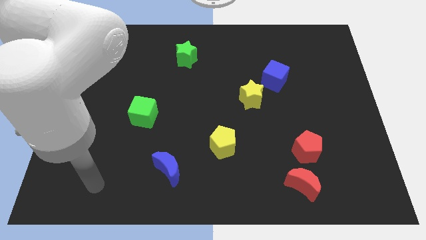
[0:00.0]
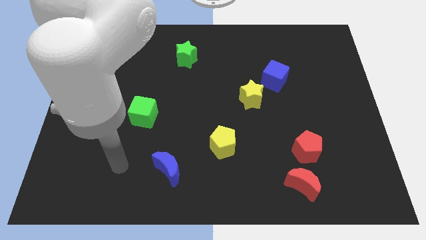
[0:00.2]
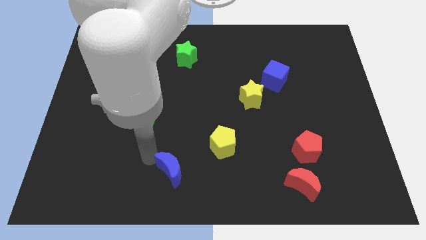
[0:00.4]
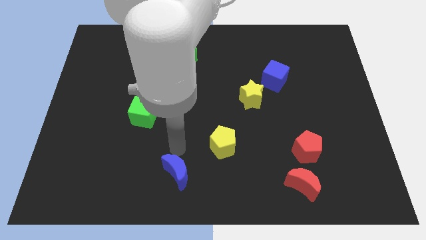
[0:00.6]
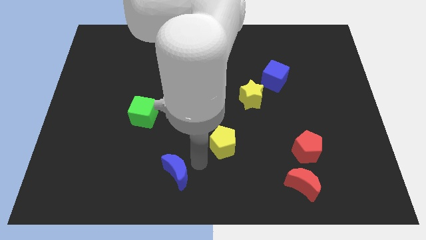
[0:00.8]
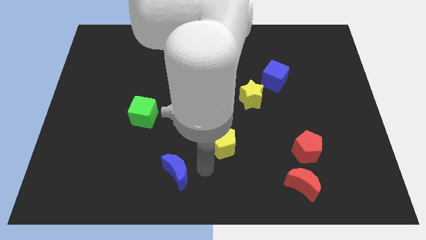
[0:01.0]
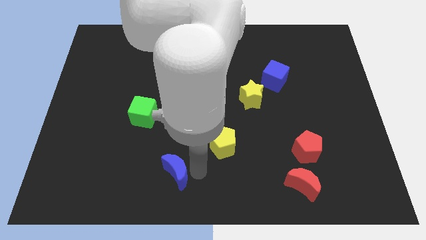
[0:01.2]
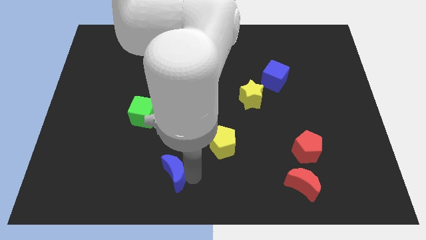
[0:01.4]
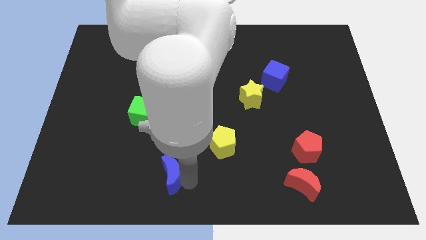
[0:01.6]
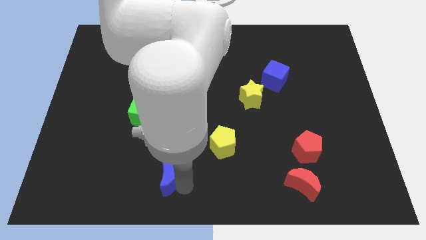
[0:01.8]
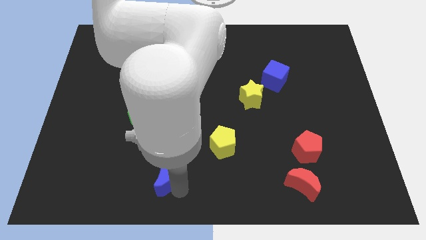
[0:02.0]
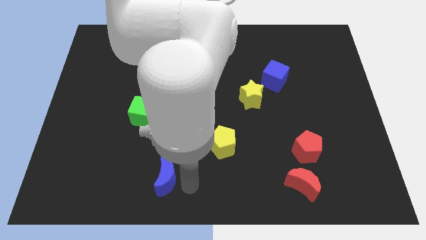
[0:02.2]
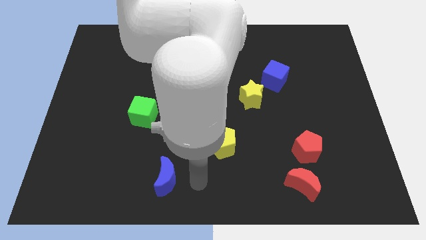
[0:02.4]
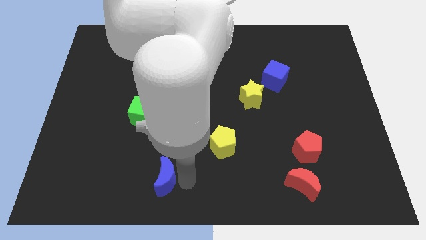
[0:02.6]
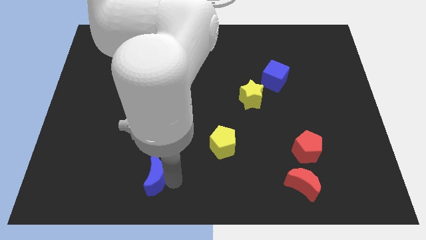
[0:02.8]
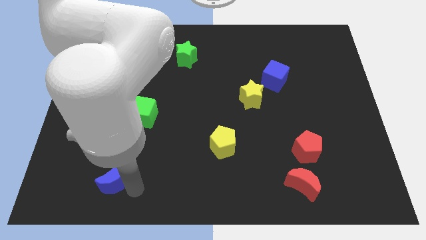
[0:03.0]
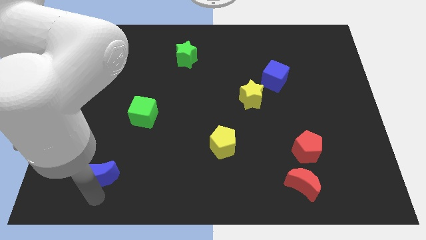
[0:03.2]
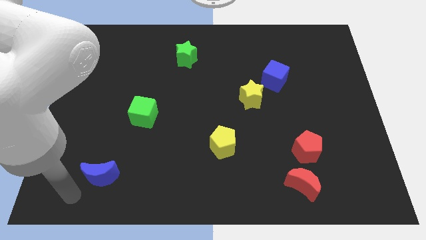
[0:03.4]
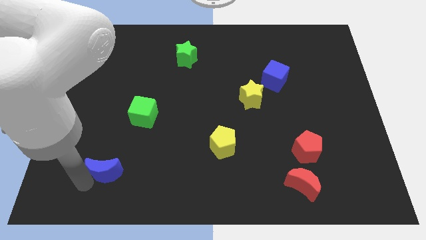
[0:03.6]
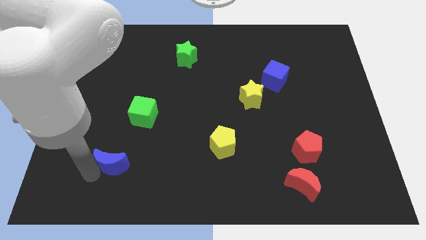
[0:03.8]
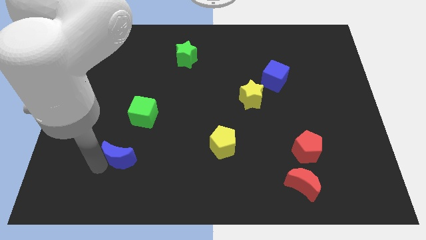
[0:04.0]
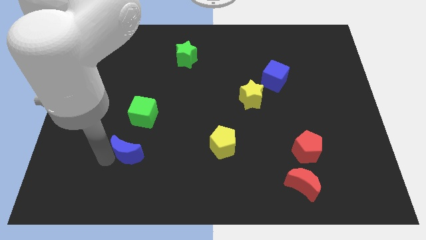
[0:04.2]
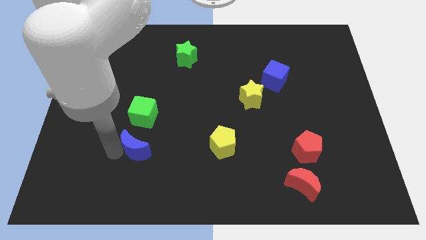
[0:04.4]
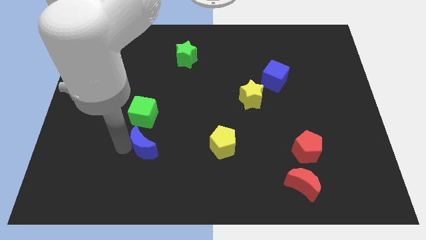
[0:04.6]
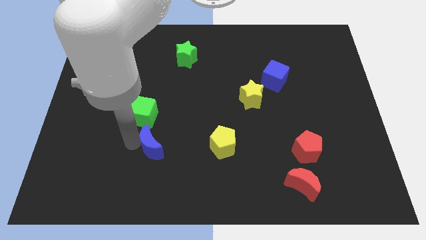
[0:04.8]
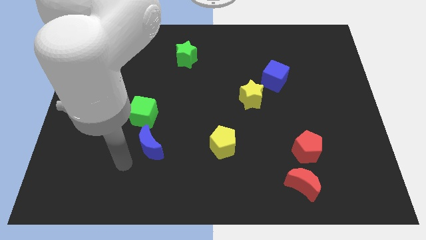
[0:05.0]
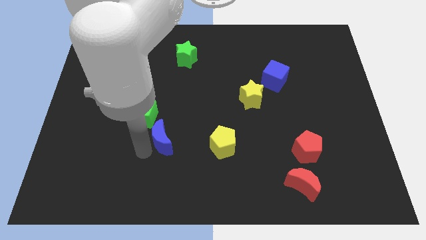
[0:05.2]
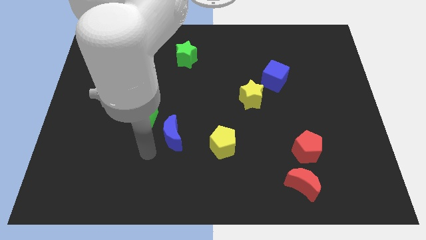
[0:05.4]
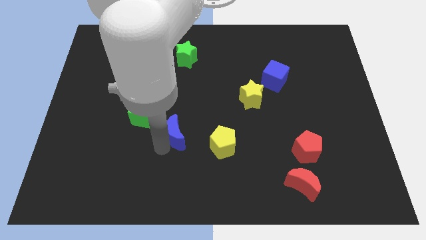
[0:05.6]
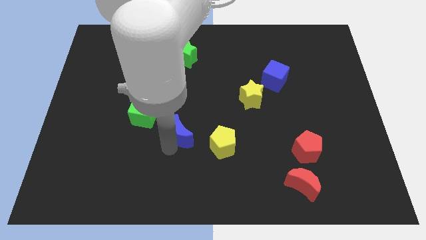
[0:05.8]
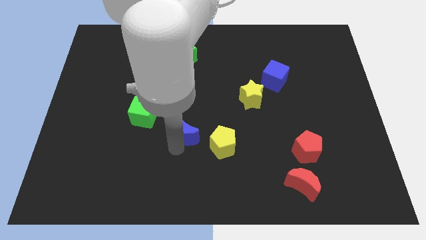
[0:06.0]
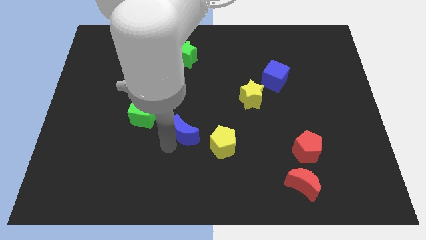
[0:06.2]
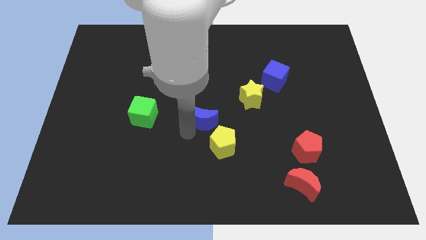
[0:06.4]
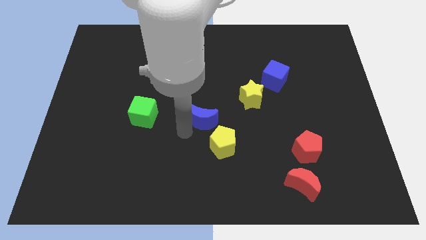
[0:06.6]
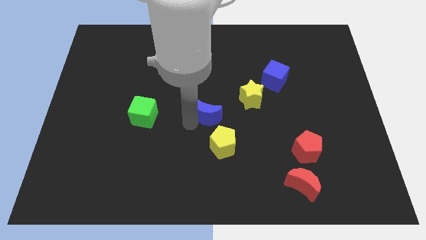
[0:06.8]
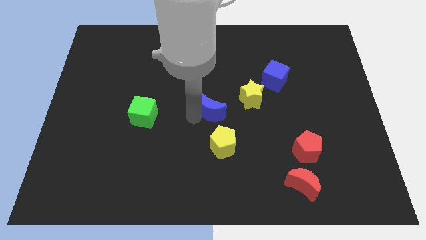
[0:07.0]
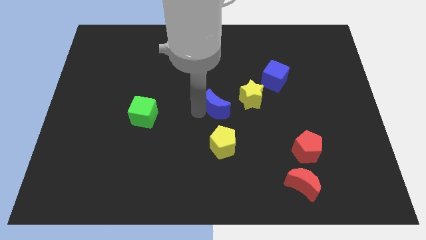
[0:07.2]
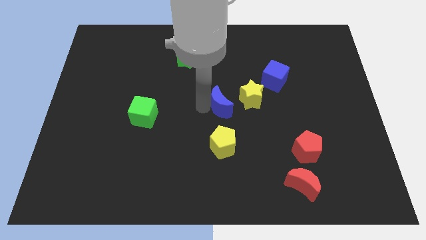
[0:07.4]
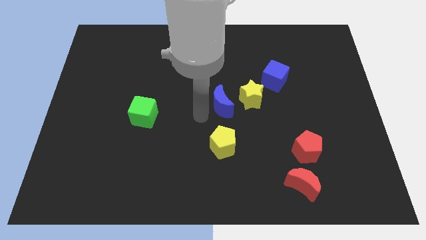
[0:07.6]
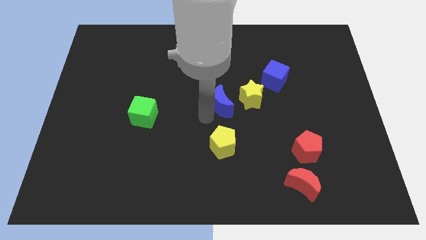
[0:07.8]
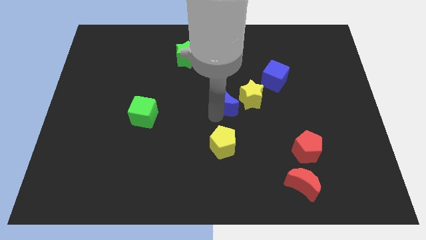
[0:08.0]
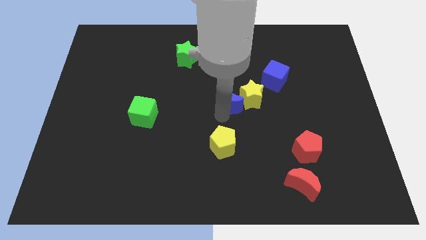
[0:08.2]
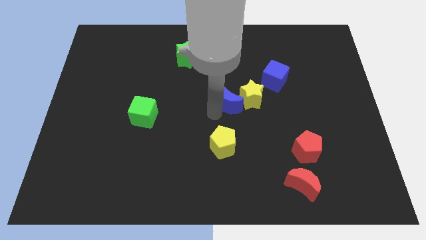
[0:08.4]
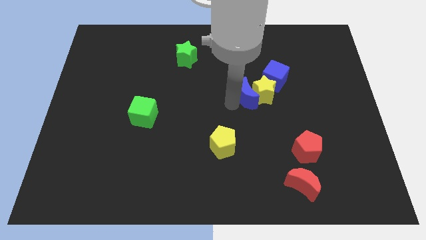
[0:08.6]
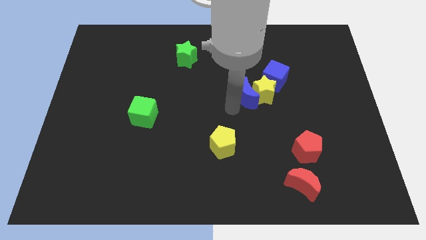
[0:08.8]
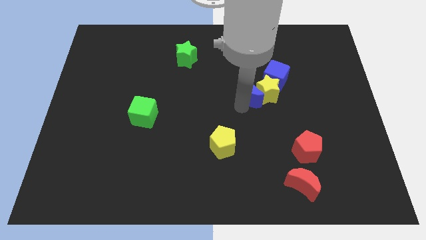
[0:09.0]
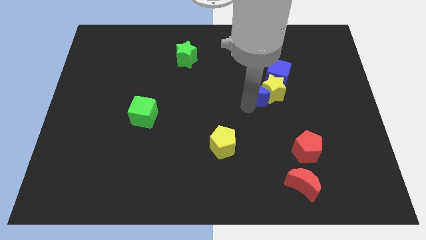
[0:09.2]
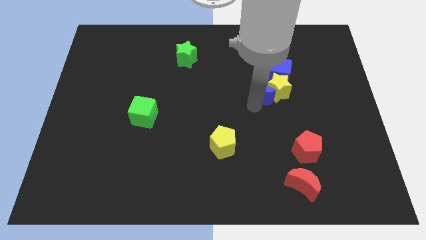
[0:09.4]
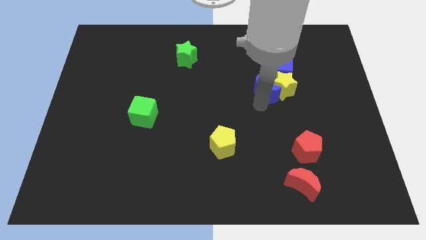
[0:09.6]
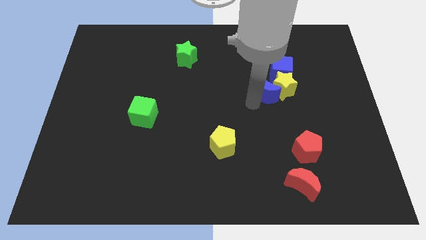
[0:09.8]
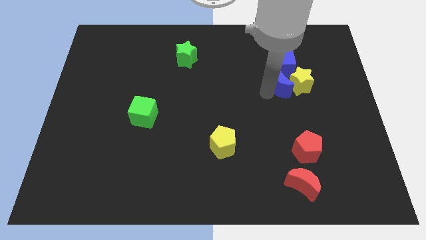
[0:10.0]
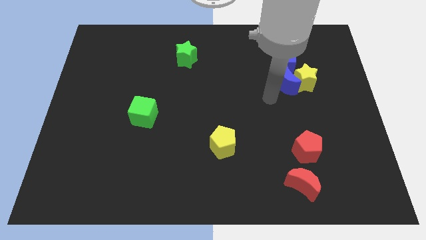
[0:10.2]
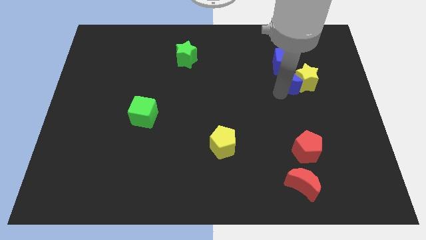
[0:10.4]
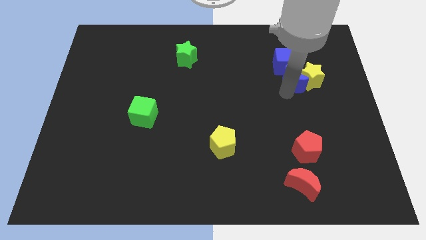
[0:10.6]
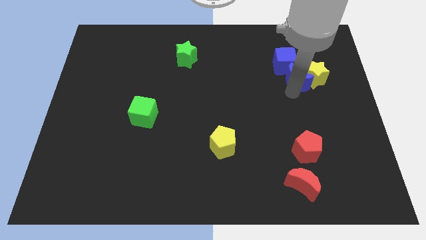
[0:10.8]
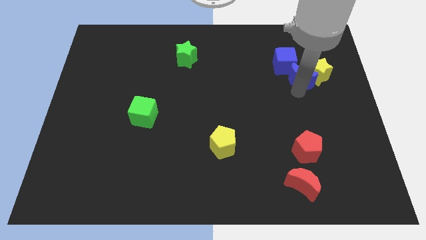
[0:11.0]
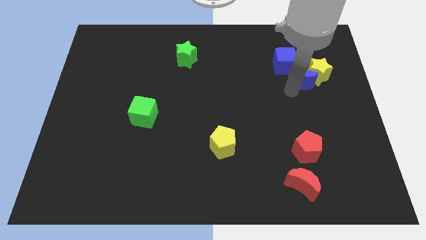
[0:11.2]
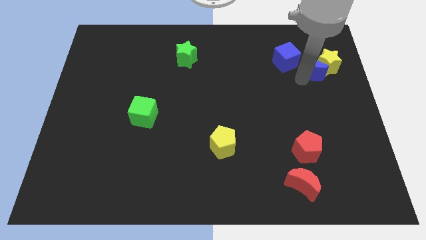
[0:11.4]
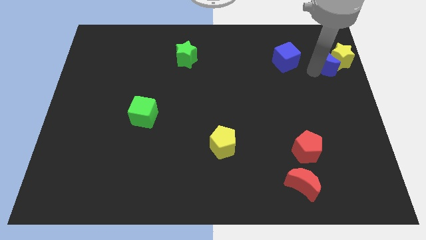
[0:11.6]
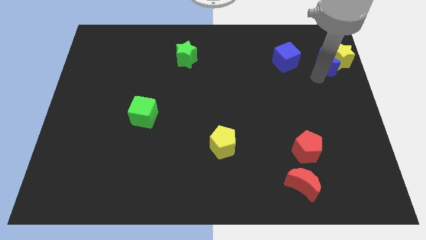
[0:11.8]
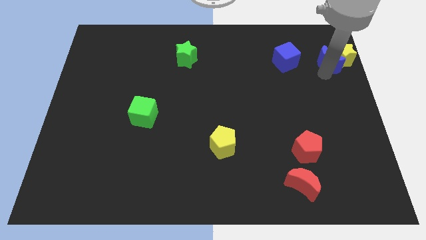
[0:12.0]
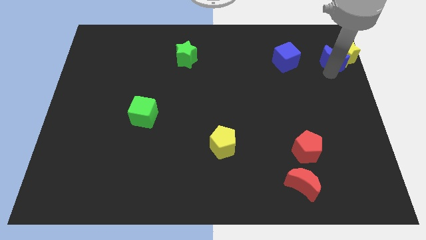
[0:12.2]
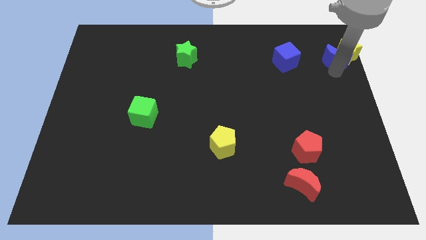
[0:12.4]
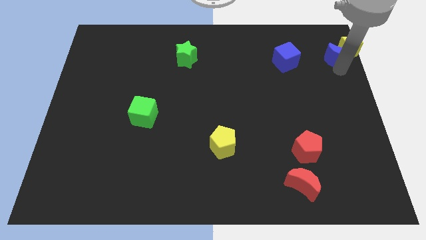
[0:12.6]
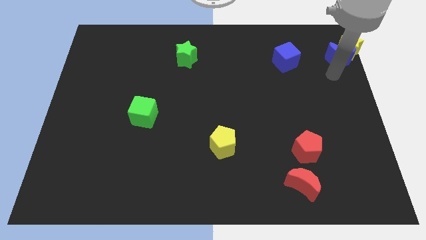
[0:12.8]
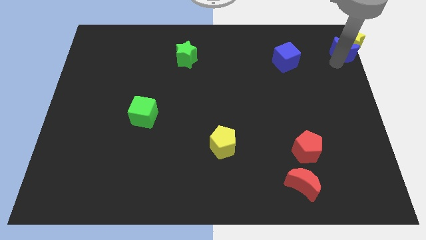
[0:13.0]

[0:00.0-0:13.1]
move the blue moon to the top right of the board

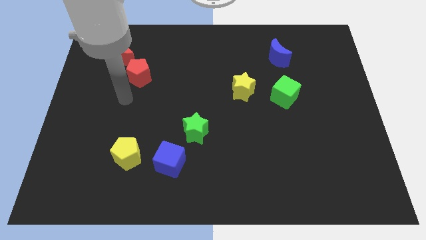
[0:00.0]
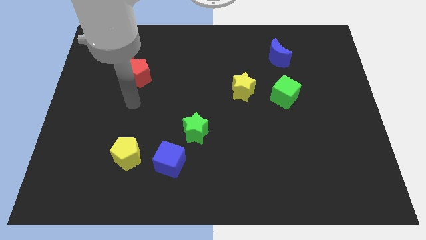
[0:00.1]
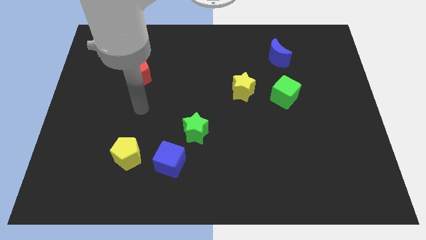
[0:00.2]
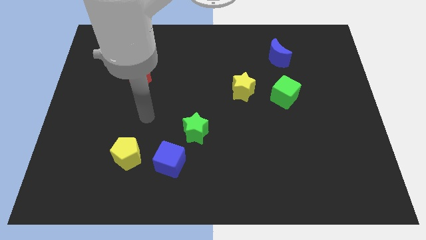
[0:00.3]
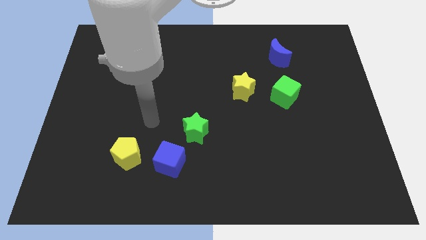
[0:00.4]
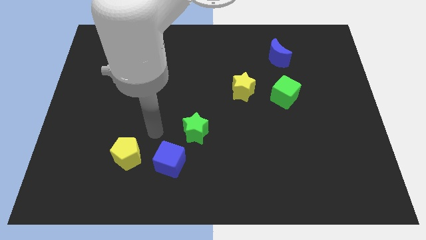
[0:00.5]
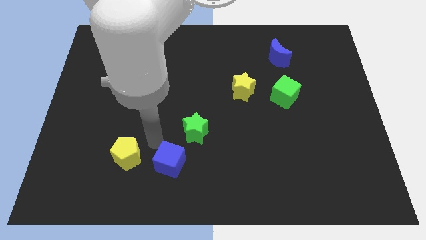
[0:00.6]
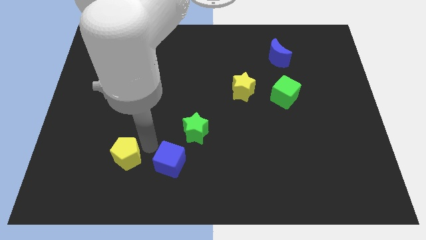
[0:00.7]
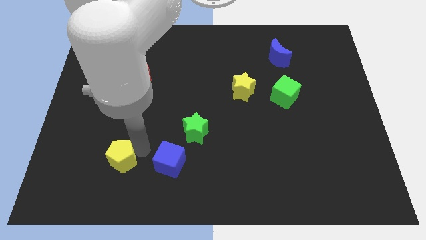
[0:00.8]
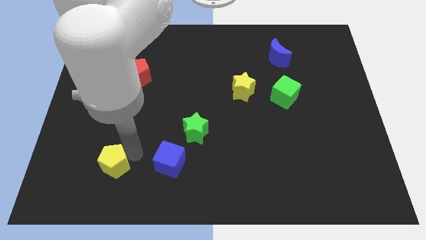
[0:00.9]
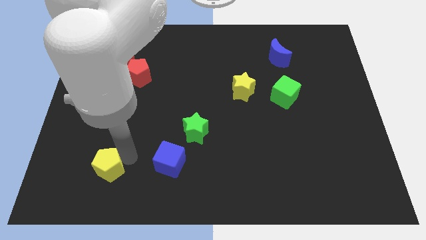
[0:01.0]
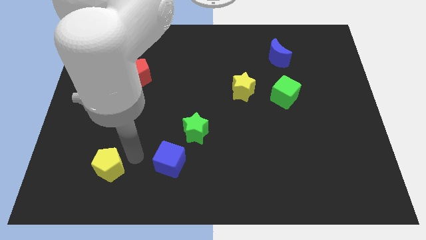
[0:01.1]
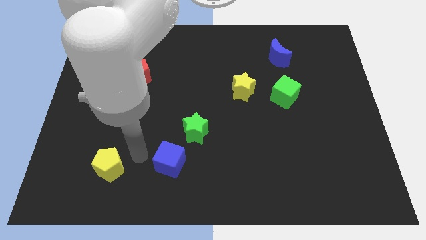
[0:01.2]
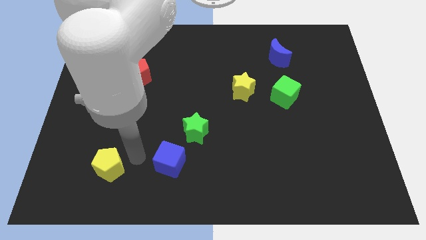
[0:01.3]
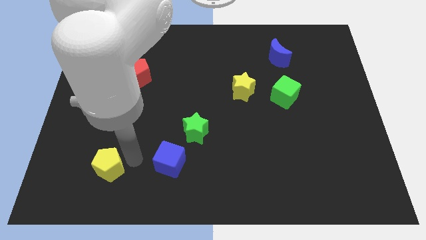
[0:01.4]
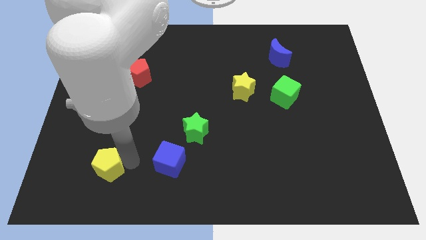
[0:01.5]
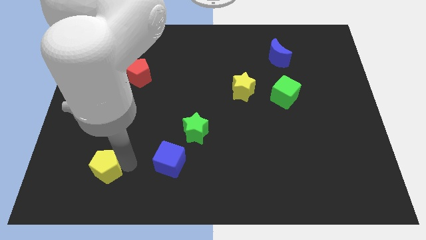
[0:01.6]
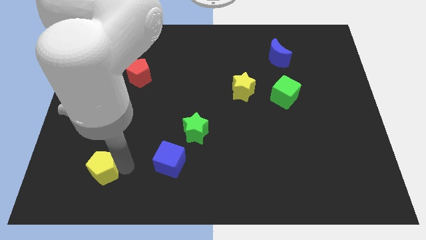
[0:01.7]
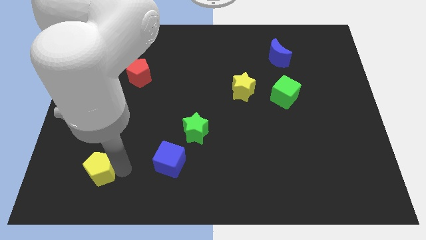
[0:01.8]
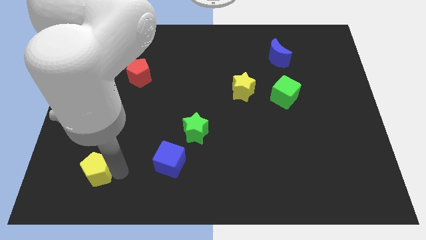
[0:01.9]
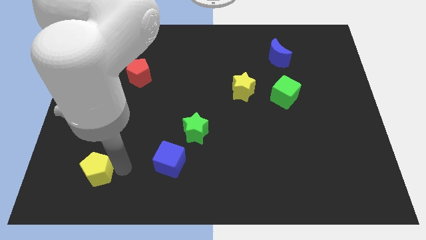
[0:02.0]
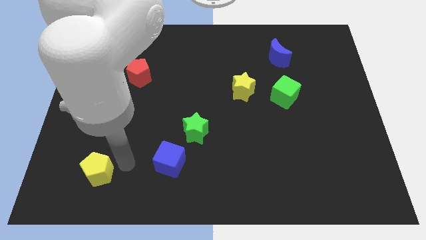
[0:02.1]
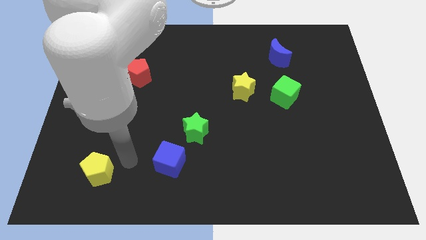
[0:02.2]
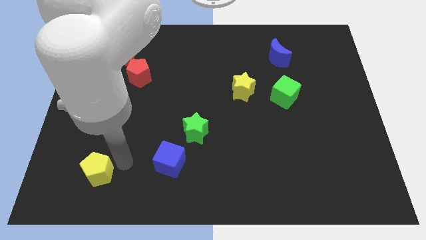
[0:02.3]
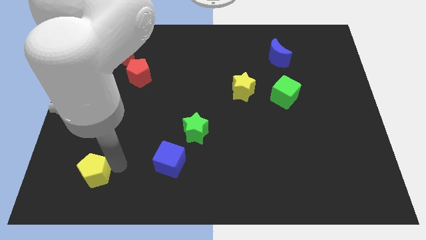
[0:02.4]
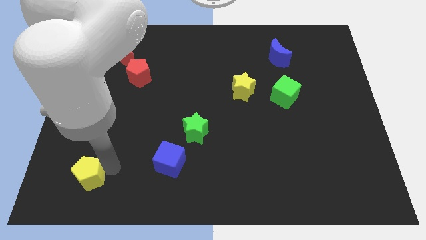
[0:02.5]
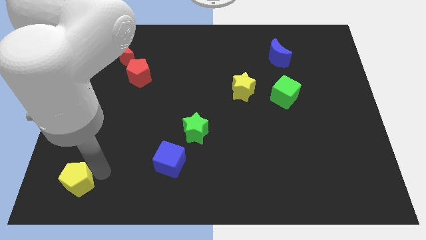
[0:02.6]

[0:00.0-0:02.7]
slide the yellow pentagon to the bottom left corner
